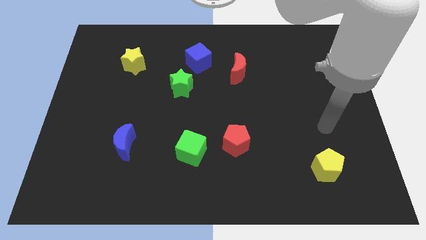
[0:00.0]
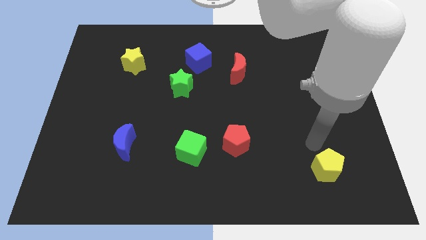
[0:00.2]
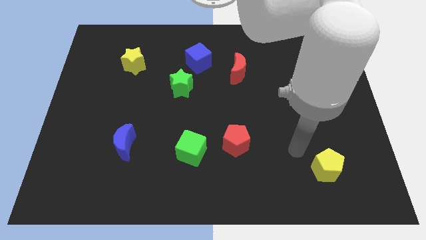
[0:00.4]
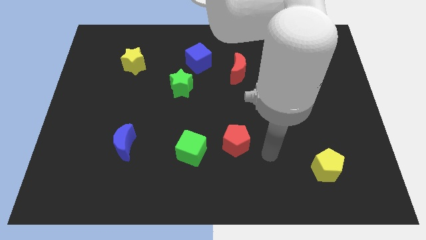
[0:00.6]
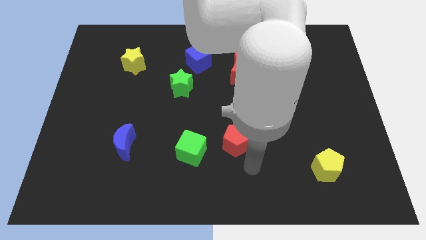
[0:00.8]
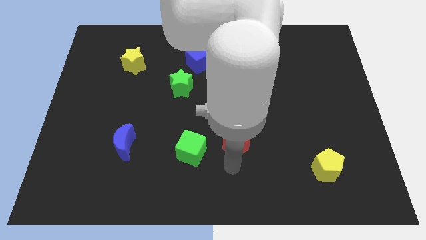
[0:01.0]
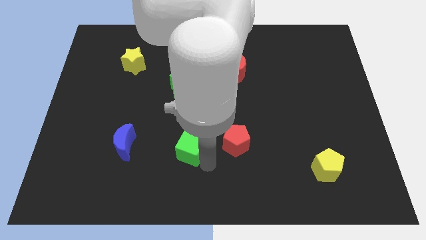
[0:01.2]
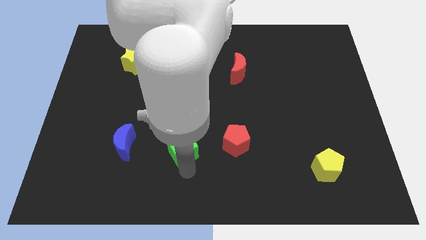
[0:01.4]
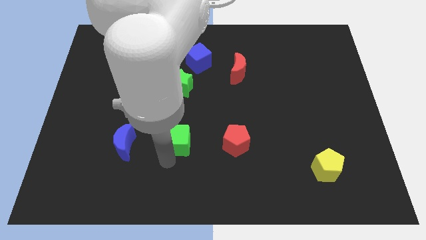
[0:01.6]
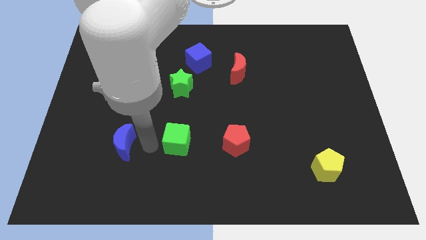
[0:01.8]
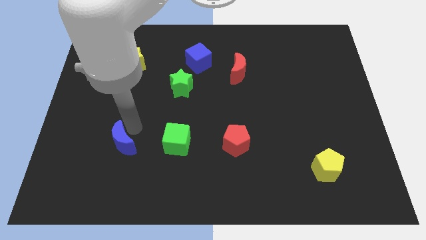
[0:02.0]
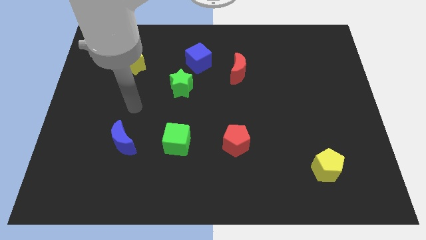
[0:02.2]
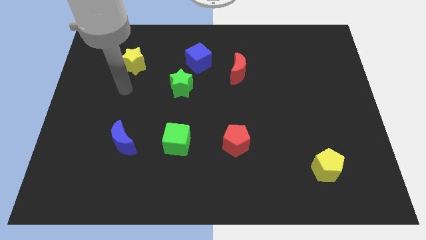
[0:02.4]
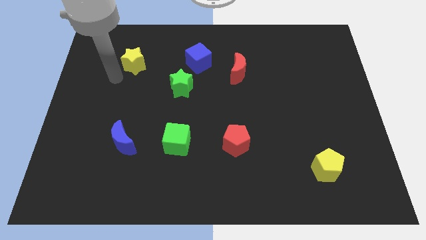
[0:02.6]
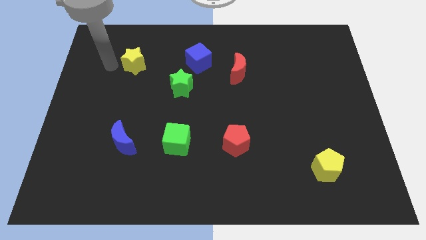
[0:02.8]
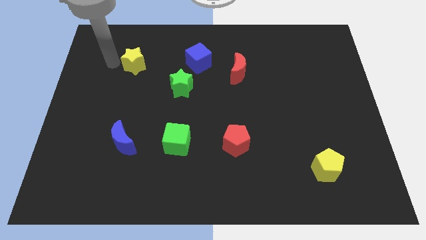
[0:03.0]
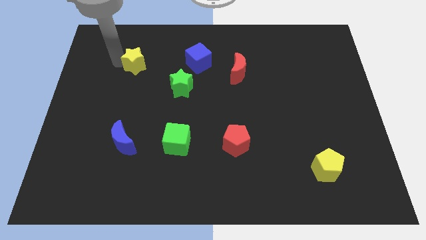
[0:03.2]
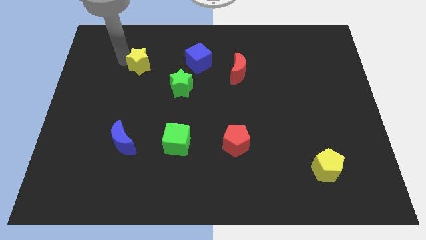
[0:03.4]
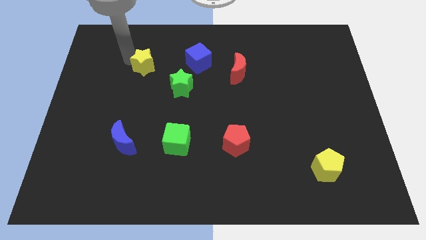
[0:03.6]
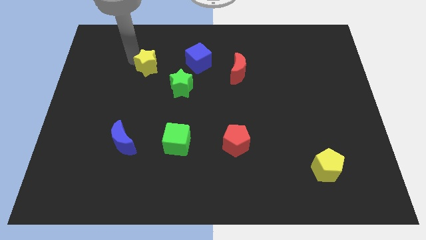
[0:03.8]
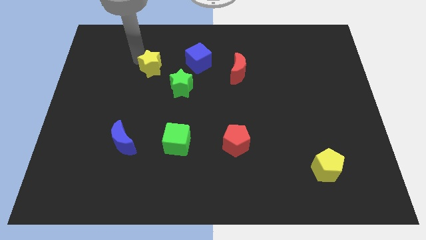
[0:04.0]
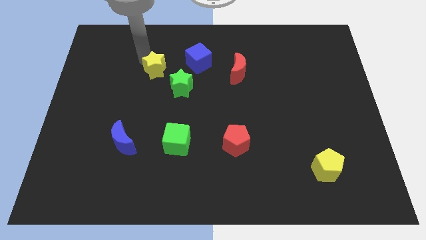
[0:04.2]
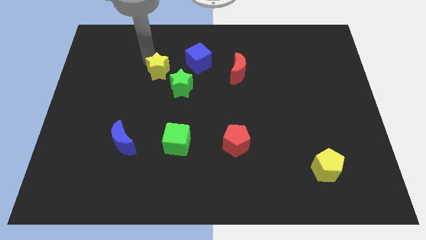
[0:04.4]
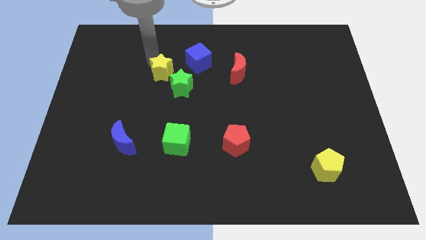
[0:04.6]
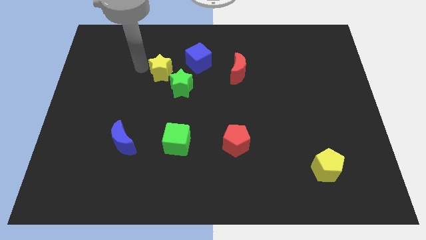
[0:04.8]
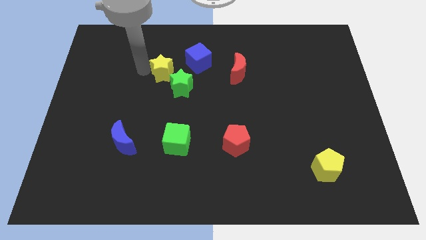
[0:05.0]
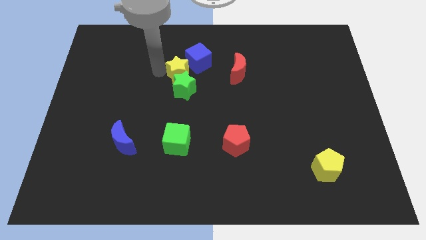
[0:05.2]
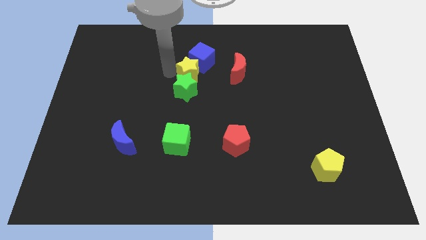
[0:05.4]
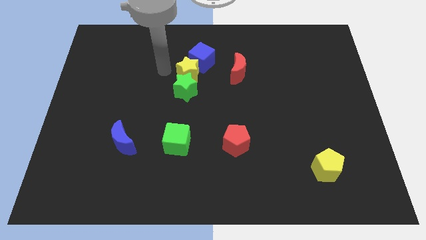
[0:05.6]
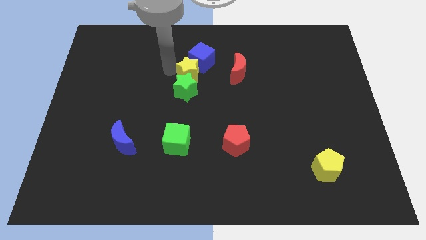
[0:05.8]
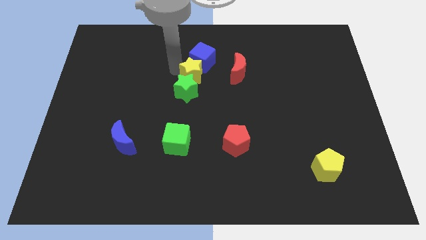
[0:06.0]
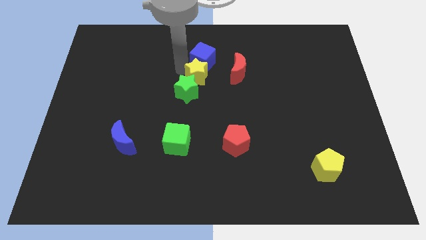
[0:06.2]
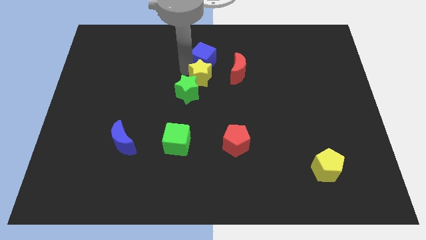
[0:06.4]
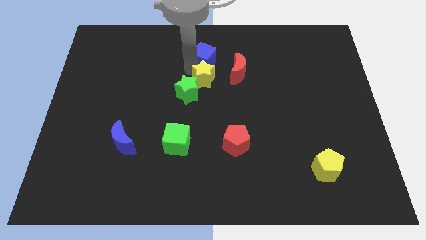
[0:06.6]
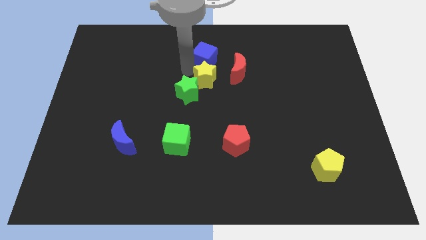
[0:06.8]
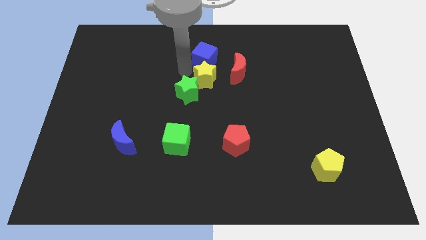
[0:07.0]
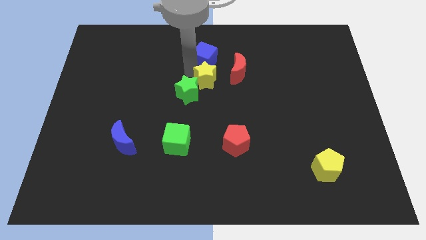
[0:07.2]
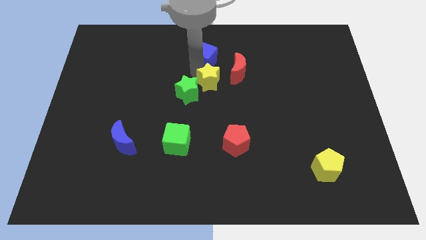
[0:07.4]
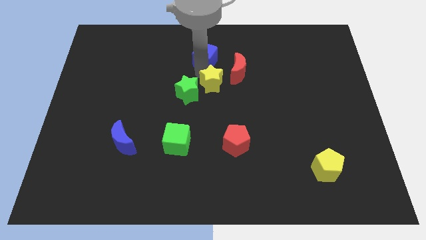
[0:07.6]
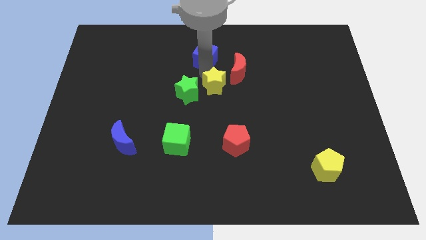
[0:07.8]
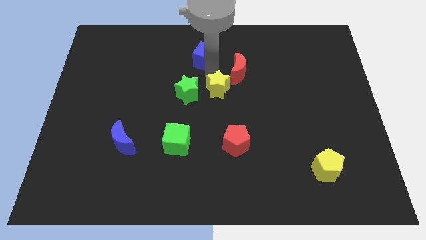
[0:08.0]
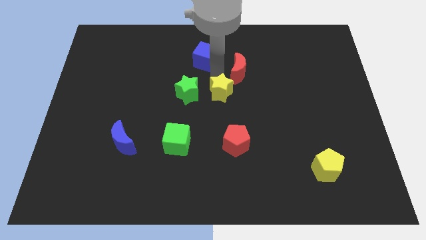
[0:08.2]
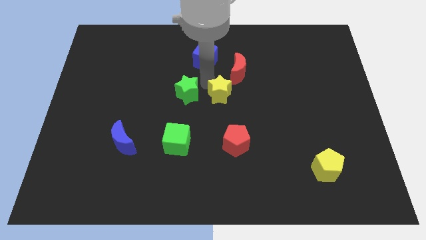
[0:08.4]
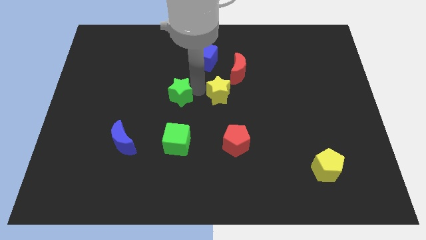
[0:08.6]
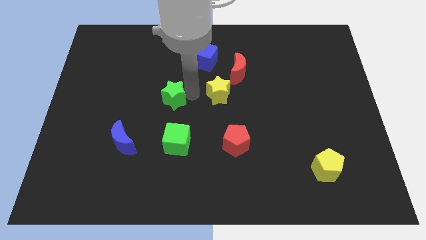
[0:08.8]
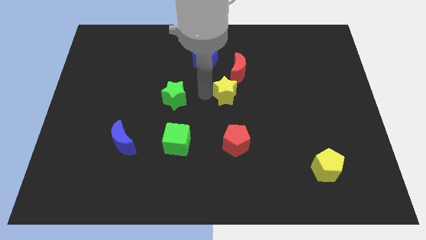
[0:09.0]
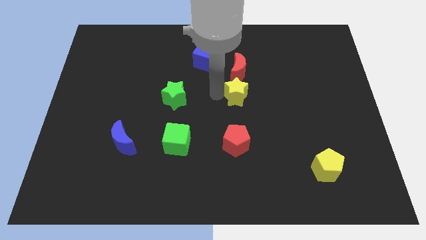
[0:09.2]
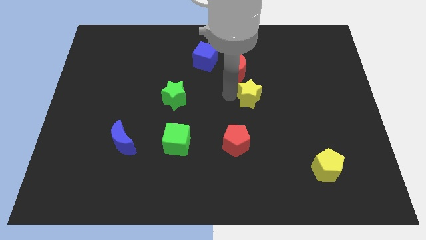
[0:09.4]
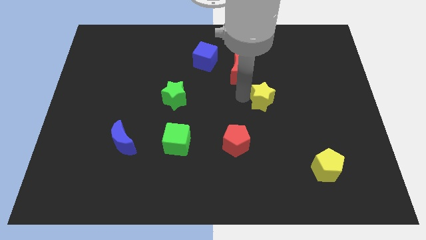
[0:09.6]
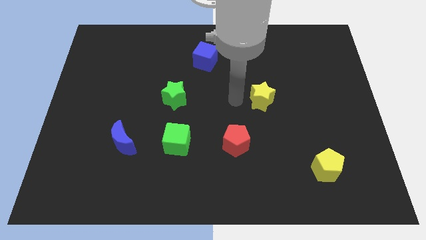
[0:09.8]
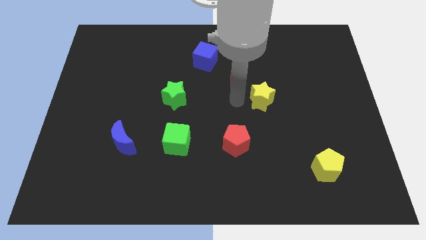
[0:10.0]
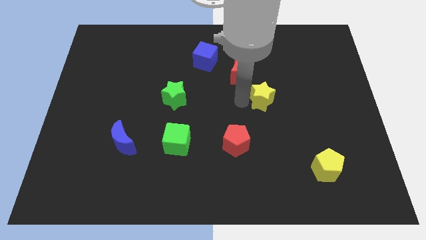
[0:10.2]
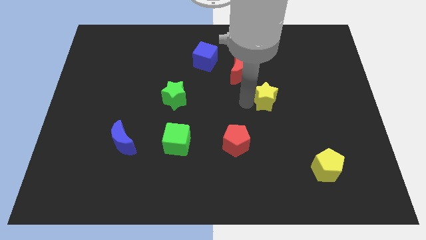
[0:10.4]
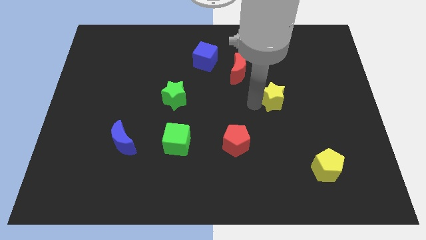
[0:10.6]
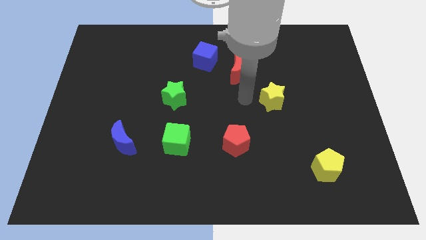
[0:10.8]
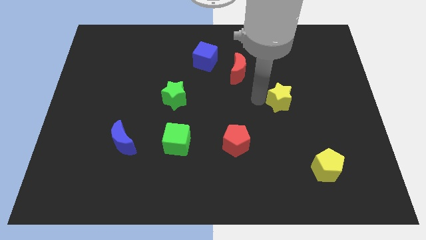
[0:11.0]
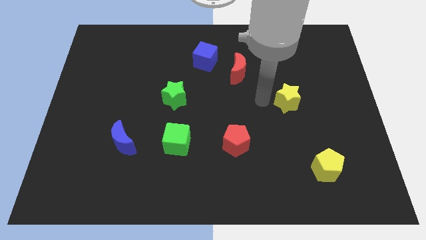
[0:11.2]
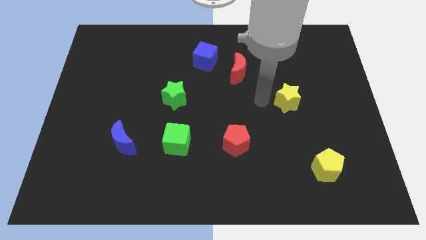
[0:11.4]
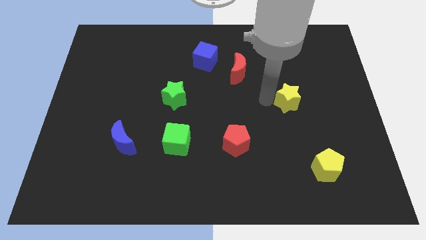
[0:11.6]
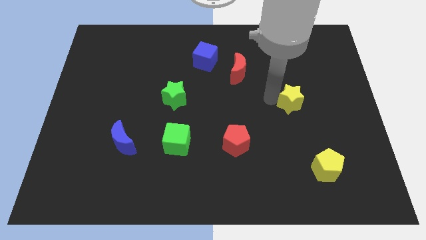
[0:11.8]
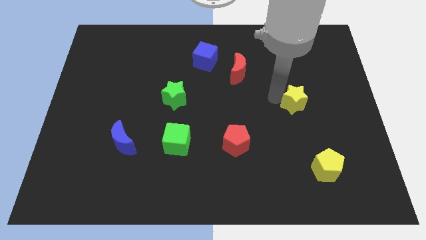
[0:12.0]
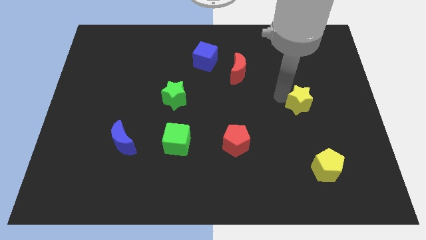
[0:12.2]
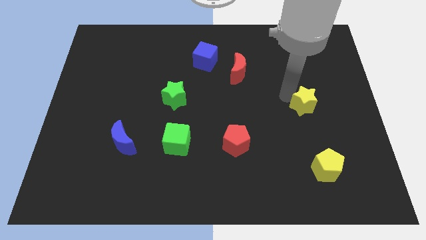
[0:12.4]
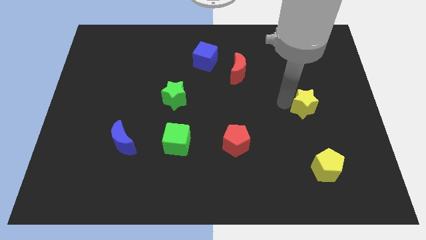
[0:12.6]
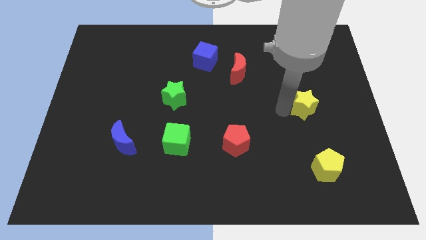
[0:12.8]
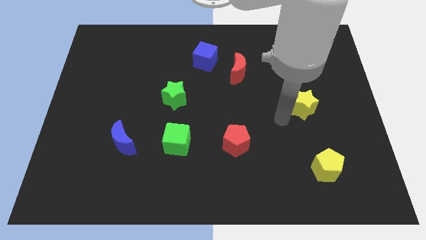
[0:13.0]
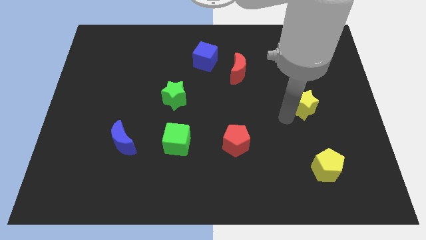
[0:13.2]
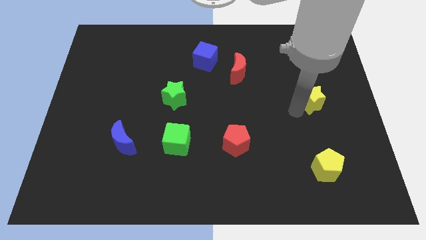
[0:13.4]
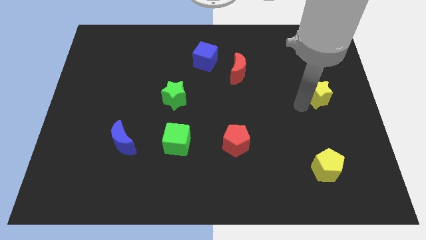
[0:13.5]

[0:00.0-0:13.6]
move the yellow star to the right side
